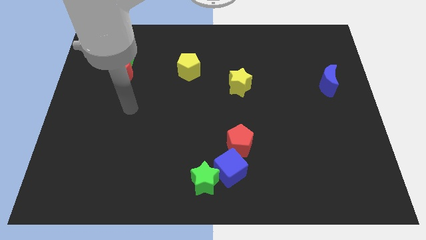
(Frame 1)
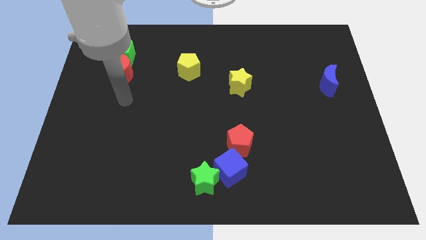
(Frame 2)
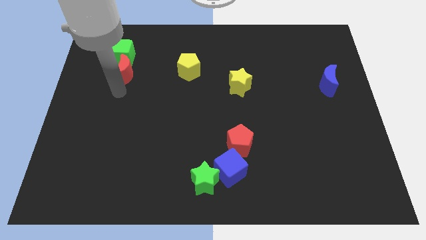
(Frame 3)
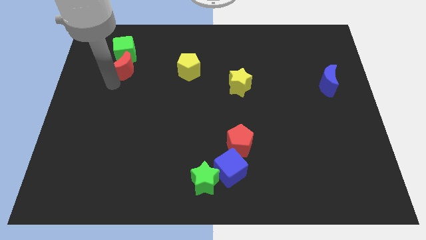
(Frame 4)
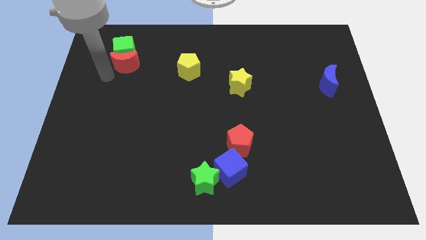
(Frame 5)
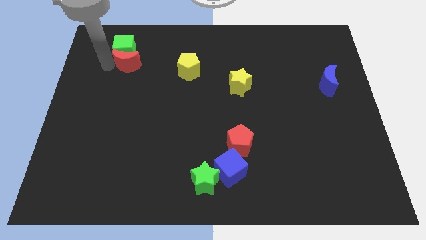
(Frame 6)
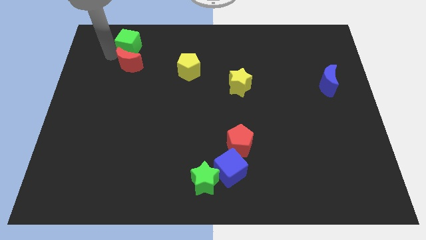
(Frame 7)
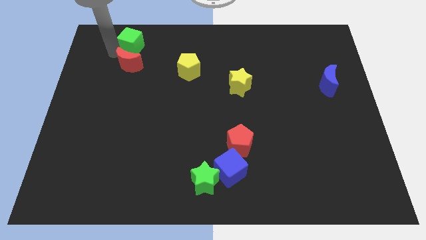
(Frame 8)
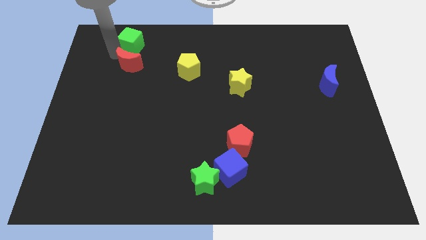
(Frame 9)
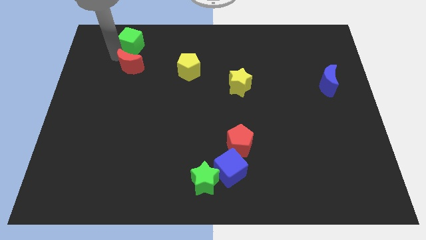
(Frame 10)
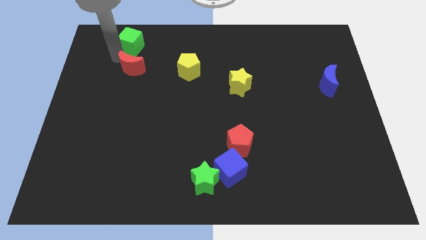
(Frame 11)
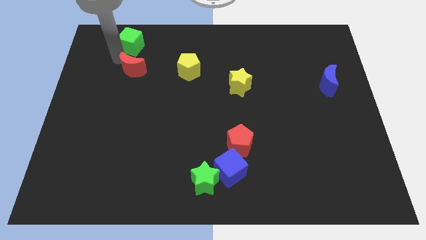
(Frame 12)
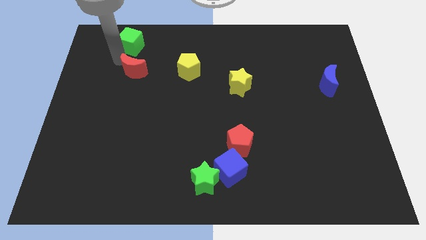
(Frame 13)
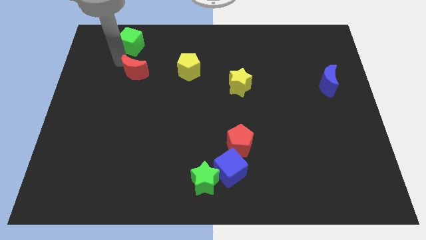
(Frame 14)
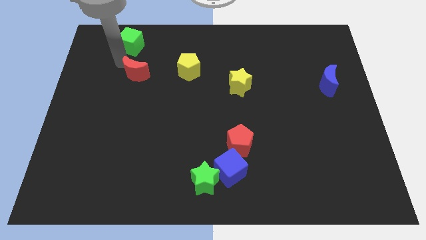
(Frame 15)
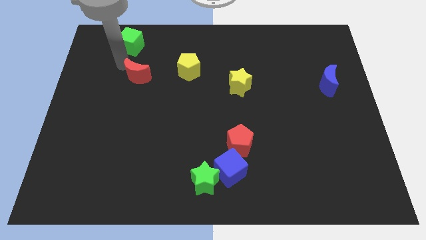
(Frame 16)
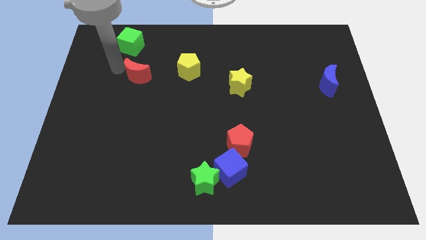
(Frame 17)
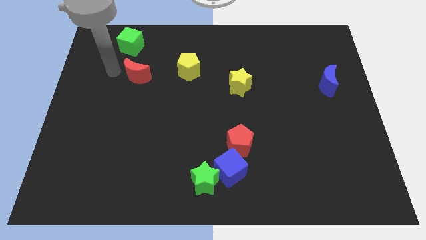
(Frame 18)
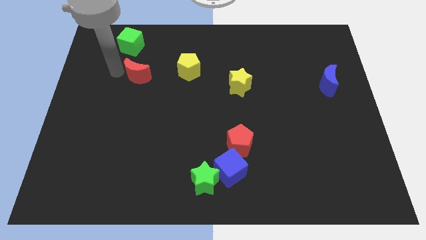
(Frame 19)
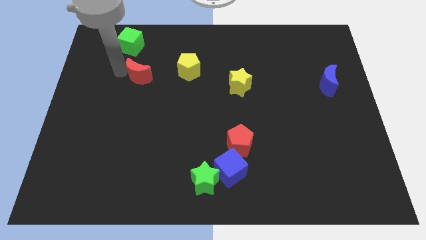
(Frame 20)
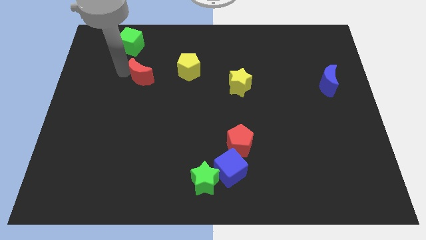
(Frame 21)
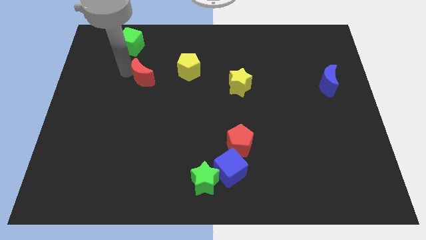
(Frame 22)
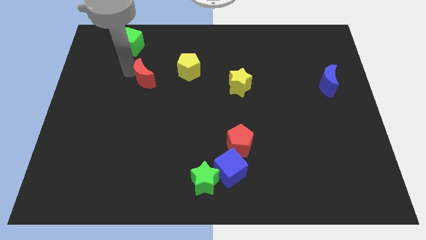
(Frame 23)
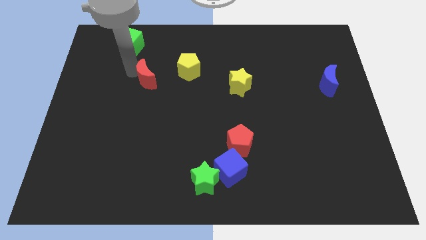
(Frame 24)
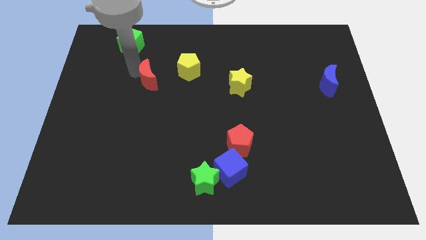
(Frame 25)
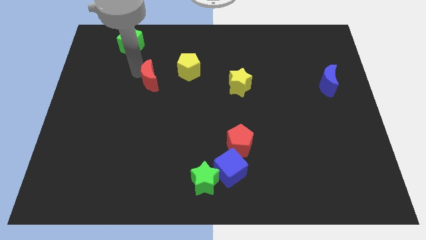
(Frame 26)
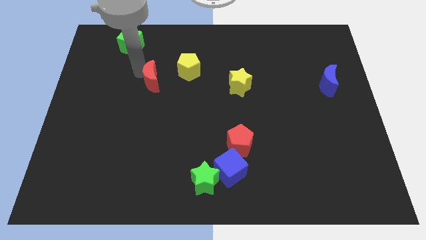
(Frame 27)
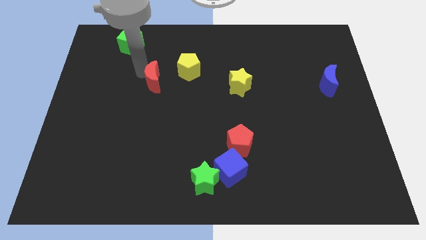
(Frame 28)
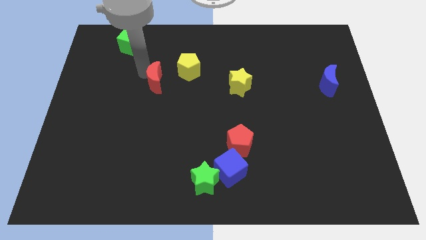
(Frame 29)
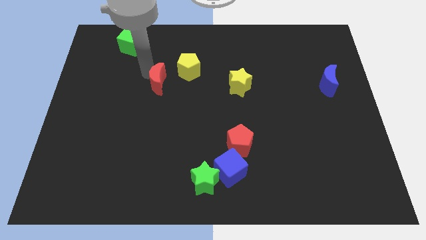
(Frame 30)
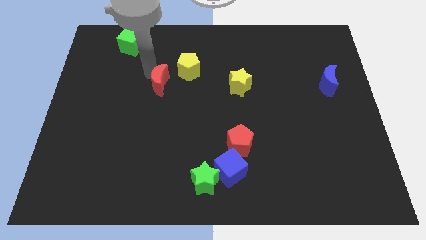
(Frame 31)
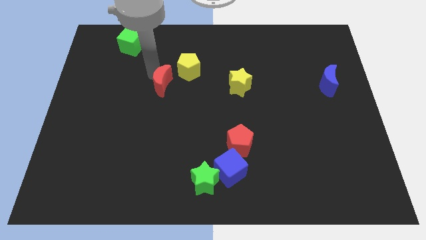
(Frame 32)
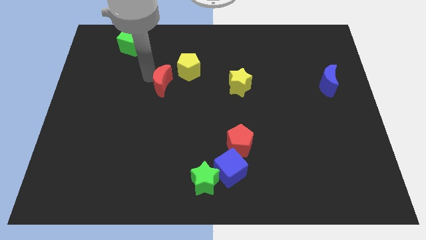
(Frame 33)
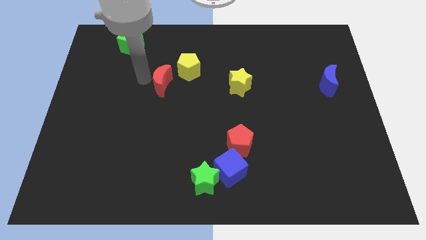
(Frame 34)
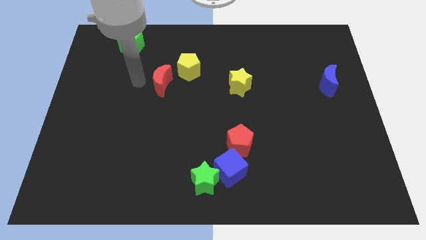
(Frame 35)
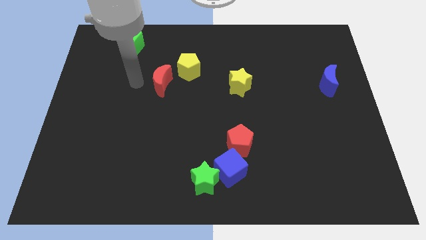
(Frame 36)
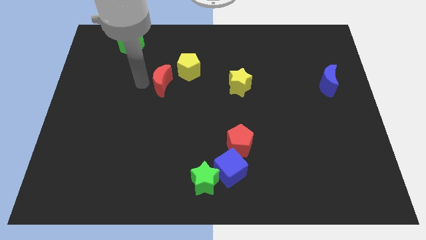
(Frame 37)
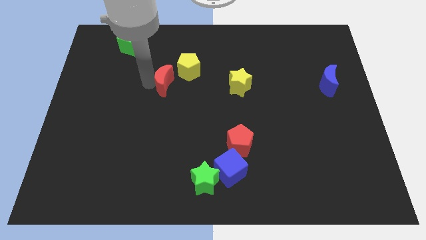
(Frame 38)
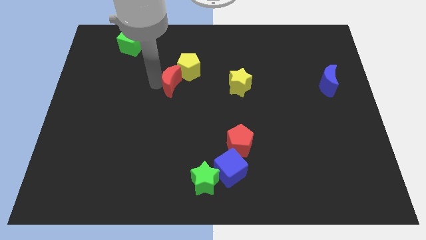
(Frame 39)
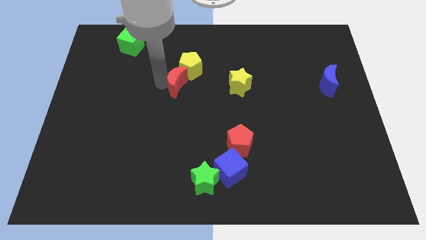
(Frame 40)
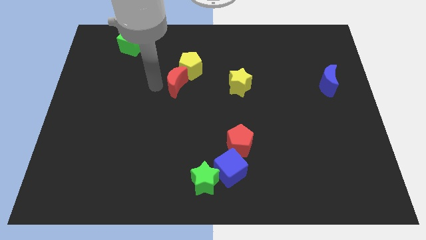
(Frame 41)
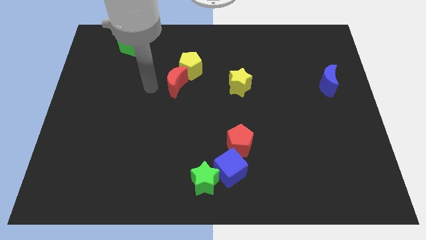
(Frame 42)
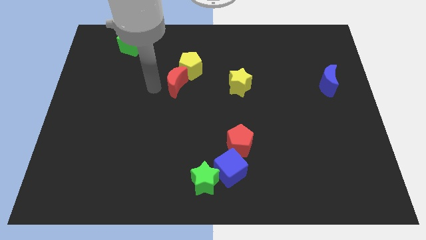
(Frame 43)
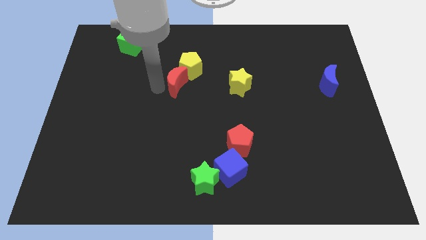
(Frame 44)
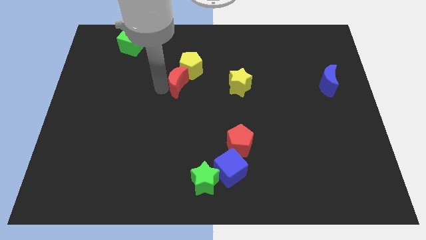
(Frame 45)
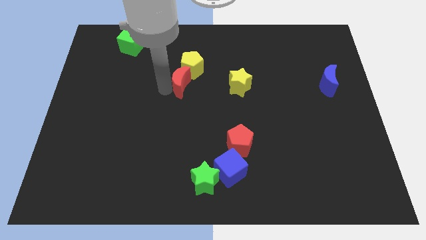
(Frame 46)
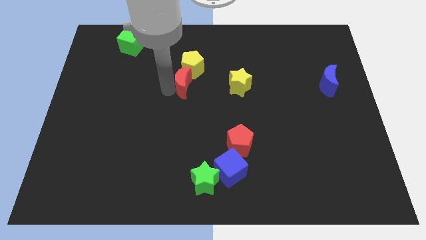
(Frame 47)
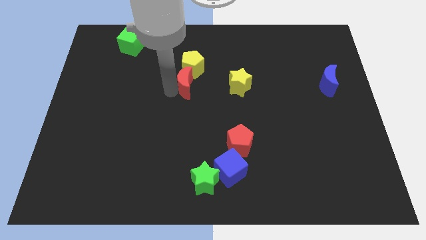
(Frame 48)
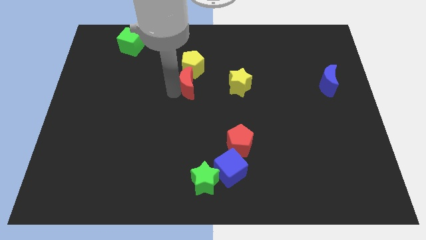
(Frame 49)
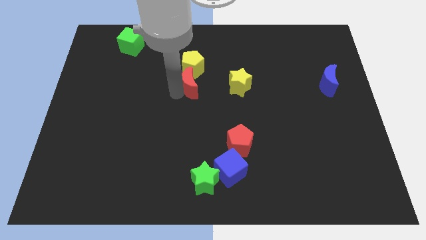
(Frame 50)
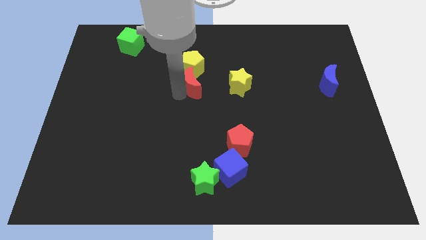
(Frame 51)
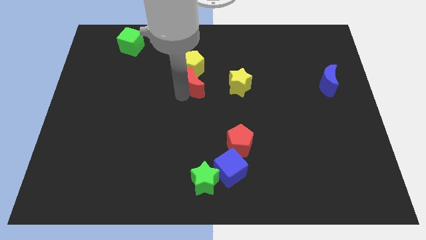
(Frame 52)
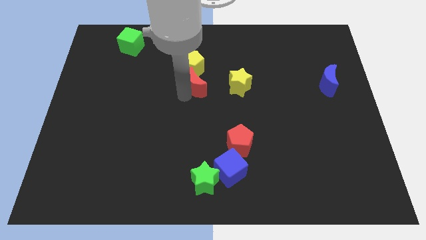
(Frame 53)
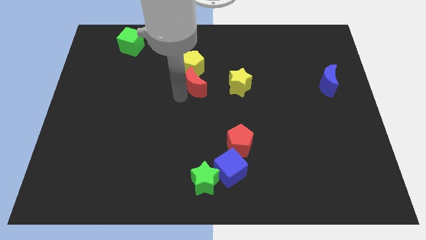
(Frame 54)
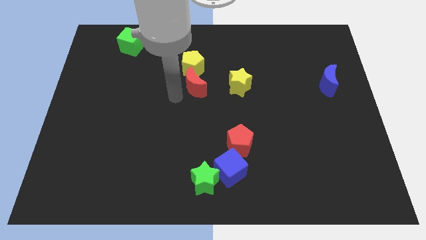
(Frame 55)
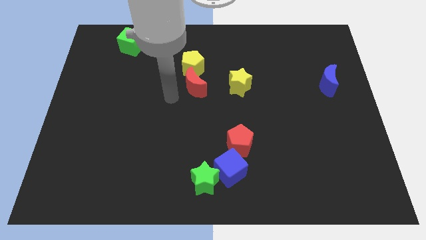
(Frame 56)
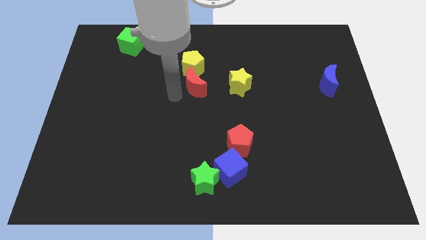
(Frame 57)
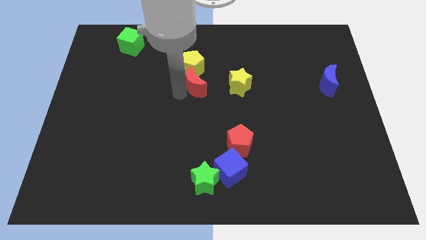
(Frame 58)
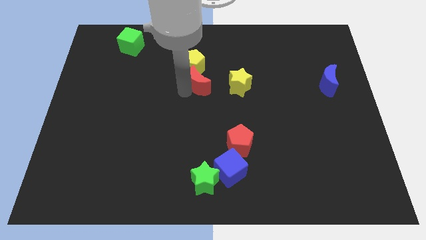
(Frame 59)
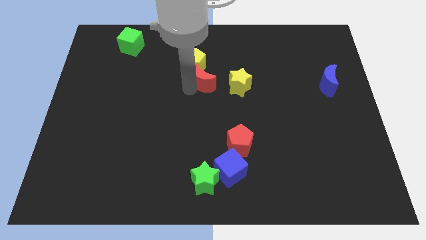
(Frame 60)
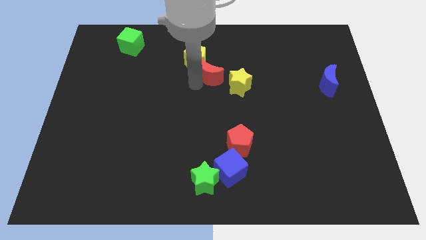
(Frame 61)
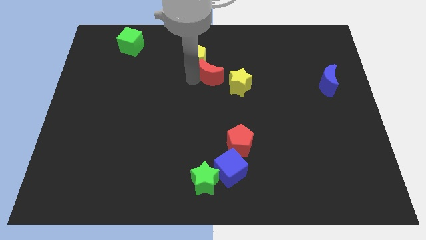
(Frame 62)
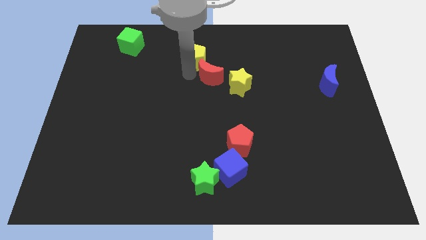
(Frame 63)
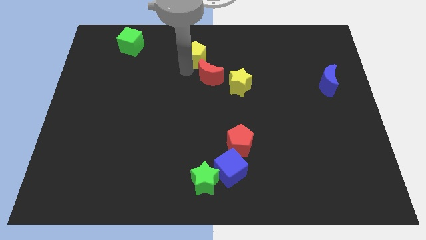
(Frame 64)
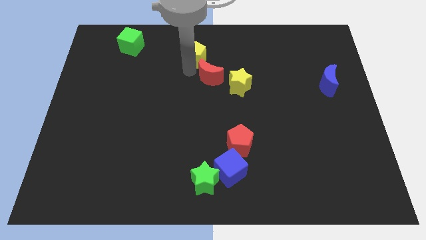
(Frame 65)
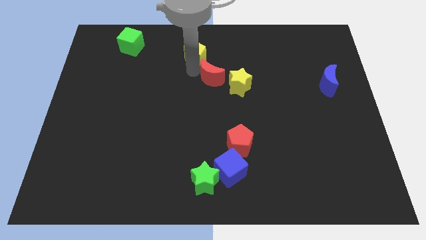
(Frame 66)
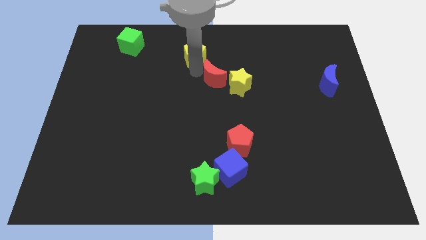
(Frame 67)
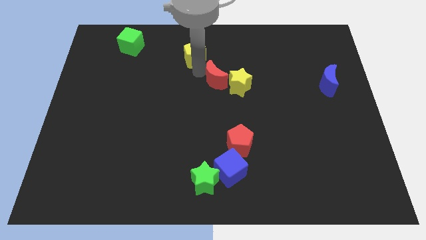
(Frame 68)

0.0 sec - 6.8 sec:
slide the red moon to the yellow star

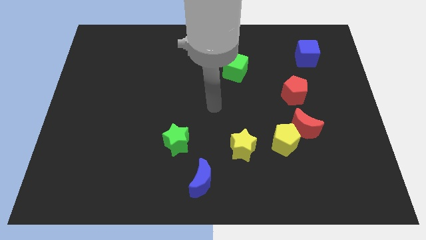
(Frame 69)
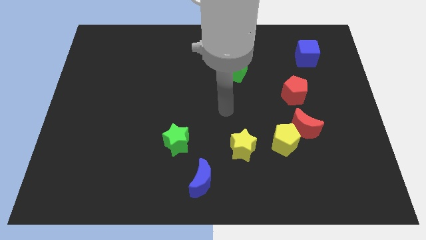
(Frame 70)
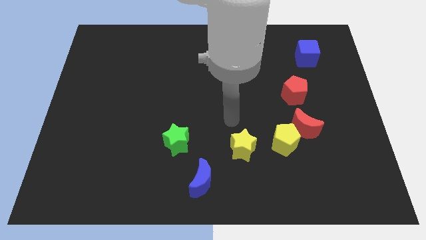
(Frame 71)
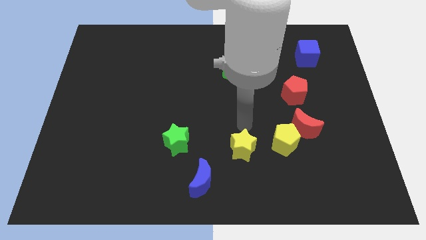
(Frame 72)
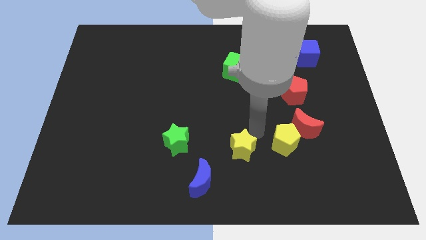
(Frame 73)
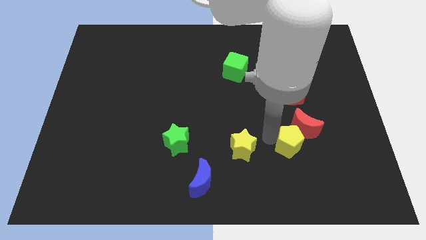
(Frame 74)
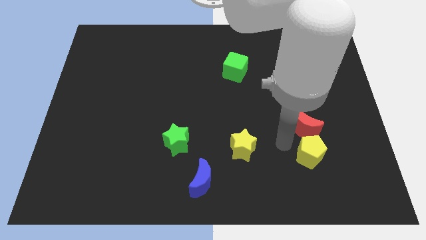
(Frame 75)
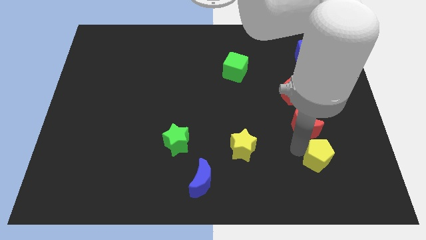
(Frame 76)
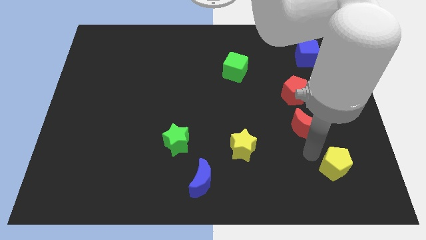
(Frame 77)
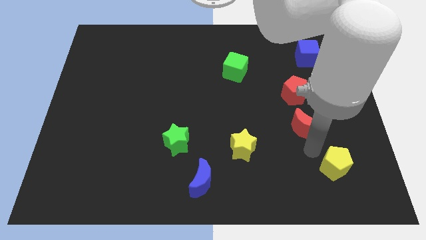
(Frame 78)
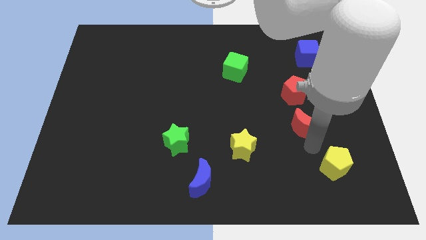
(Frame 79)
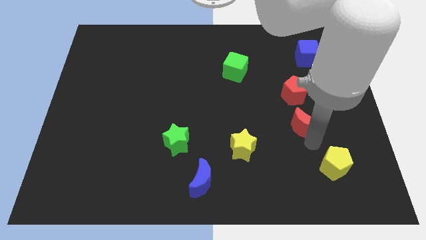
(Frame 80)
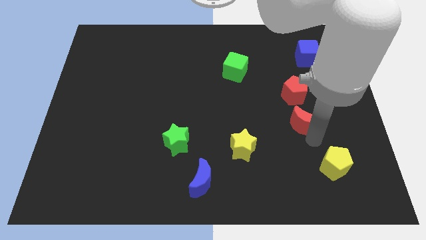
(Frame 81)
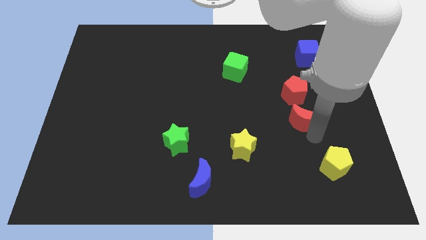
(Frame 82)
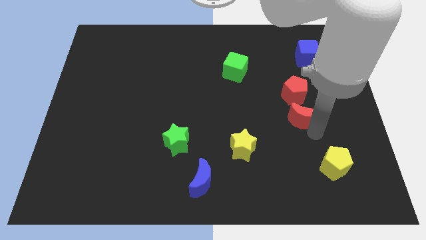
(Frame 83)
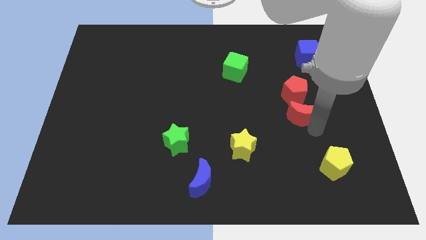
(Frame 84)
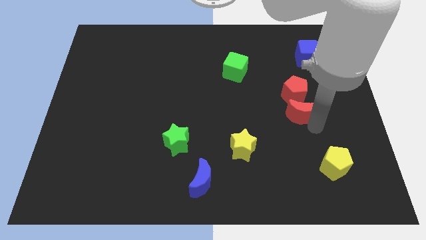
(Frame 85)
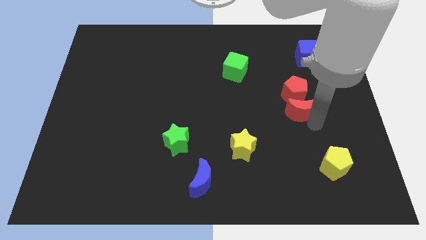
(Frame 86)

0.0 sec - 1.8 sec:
move the red moon to the red pentagon

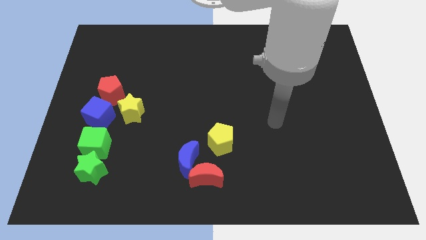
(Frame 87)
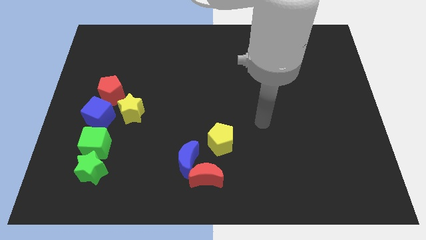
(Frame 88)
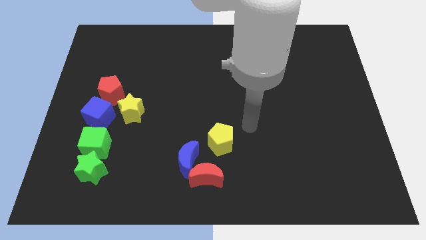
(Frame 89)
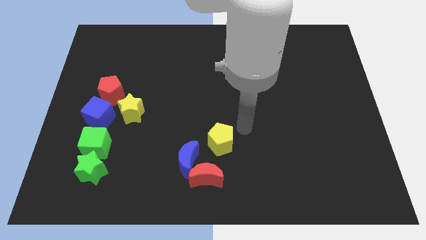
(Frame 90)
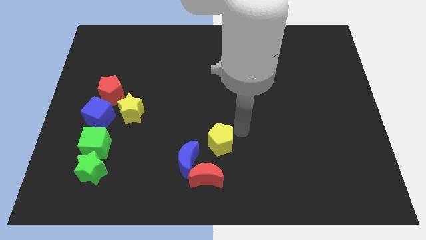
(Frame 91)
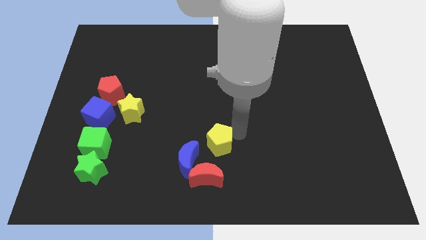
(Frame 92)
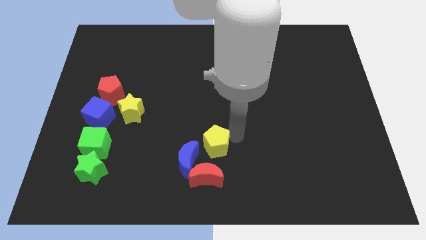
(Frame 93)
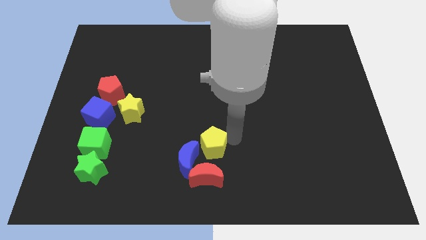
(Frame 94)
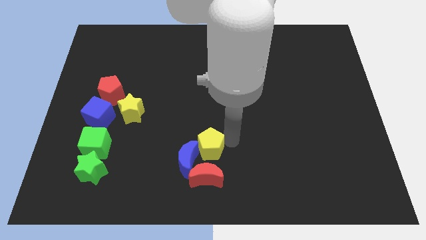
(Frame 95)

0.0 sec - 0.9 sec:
move the yellow pentagon close to the blue moon
